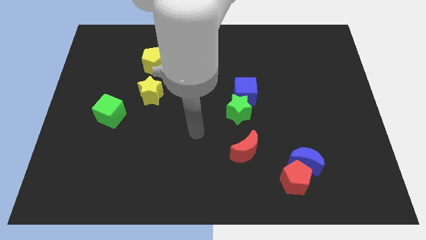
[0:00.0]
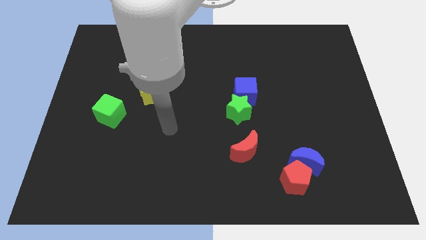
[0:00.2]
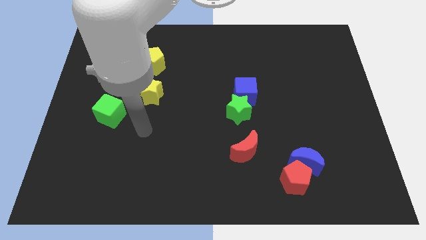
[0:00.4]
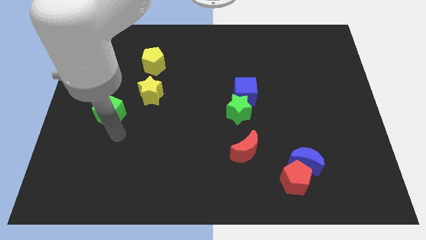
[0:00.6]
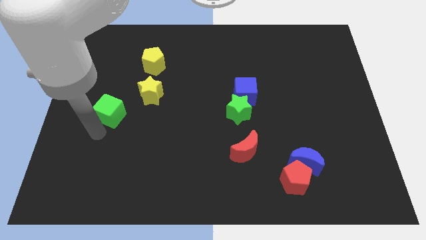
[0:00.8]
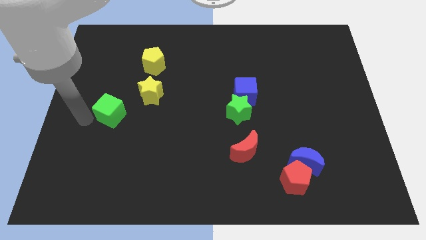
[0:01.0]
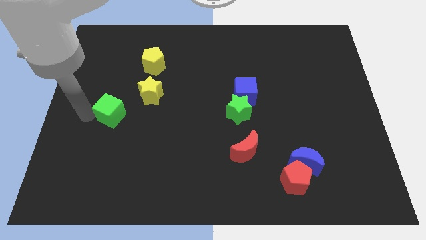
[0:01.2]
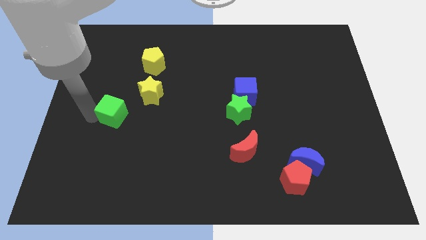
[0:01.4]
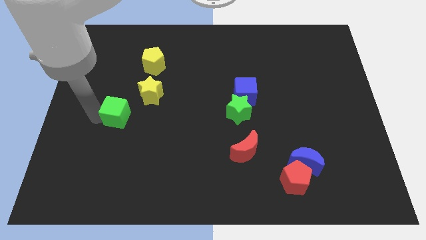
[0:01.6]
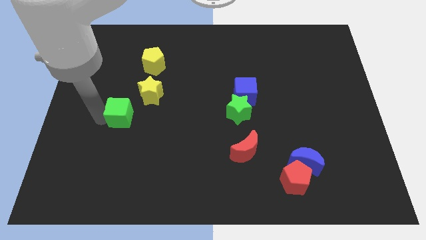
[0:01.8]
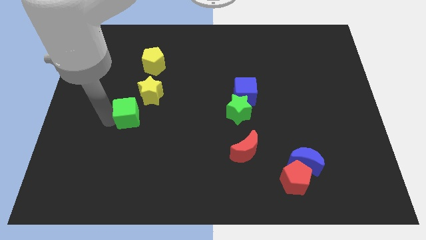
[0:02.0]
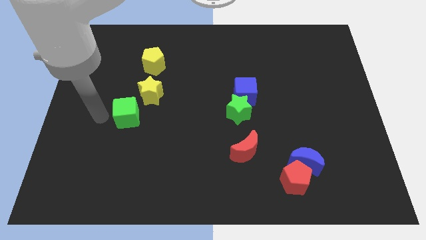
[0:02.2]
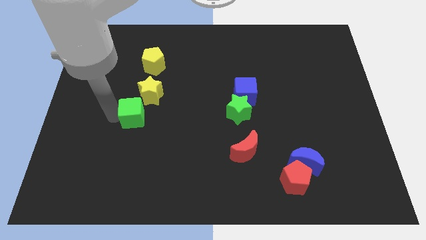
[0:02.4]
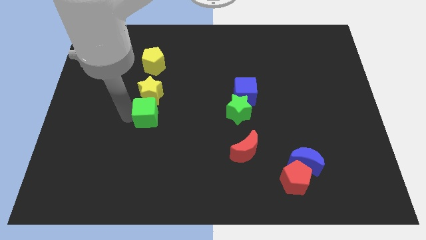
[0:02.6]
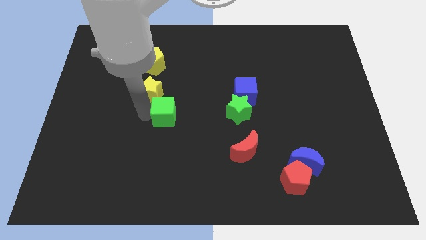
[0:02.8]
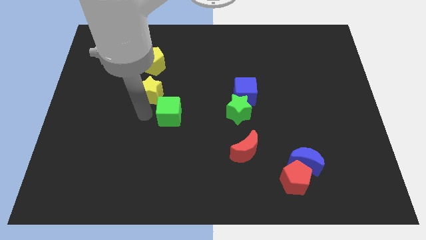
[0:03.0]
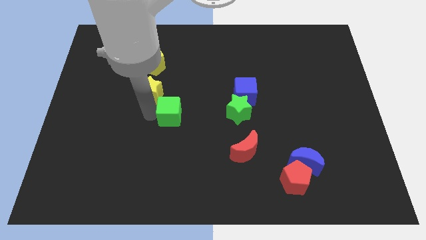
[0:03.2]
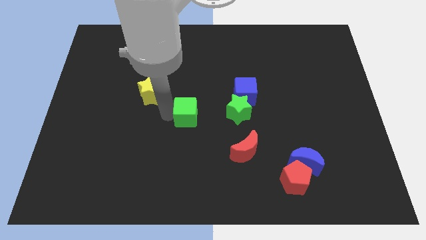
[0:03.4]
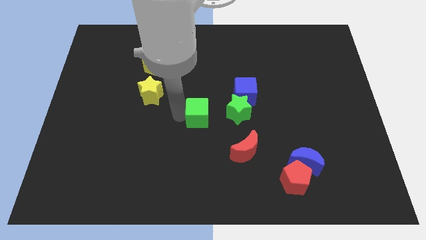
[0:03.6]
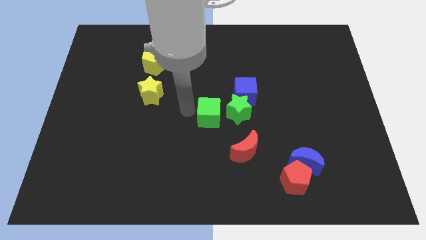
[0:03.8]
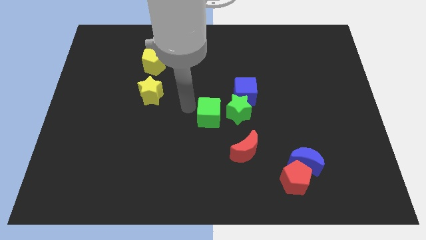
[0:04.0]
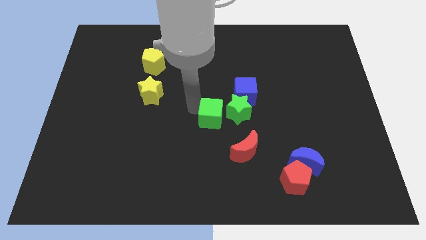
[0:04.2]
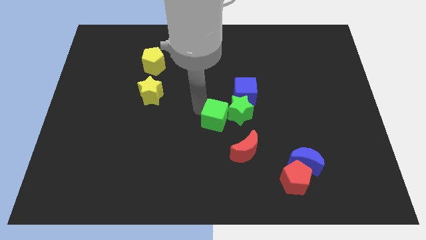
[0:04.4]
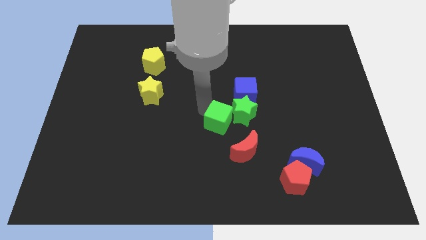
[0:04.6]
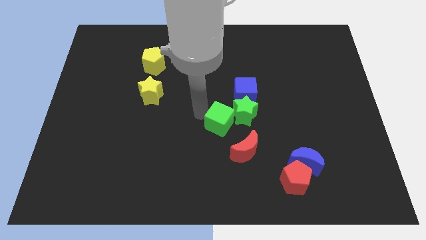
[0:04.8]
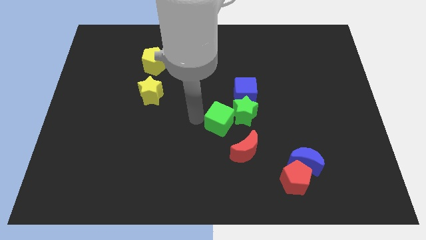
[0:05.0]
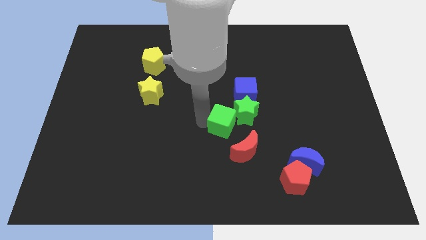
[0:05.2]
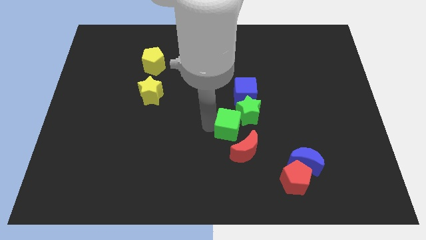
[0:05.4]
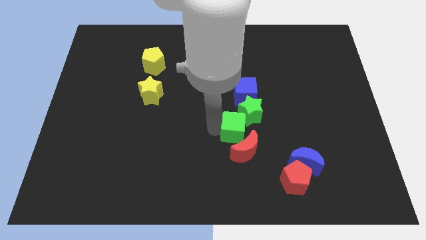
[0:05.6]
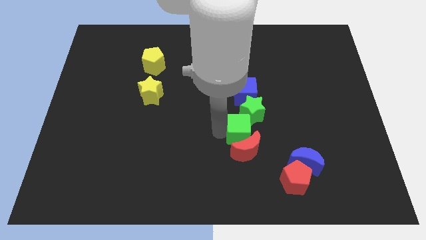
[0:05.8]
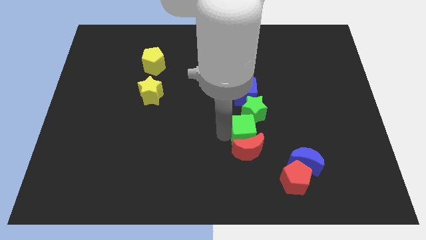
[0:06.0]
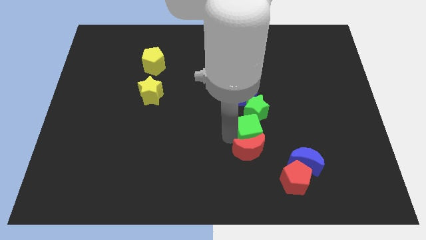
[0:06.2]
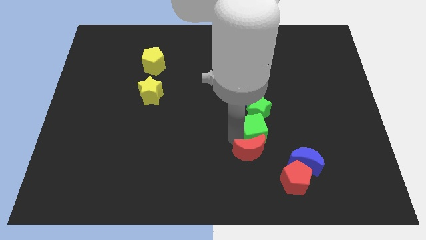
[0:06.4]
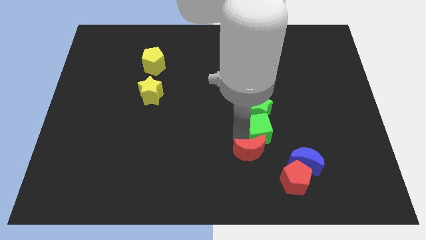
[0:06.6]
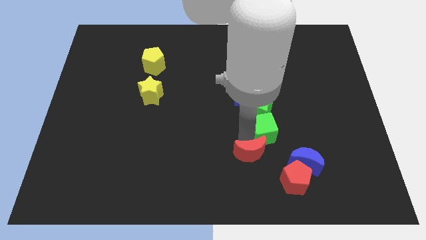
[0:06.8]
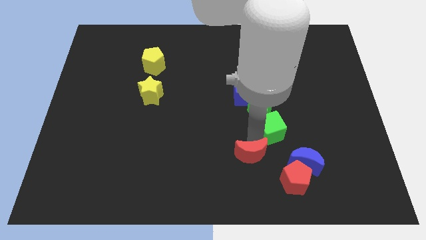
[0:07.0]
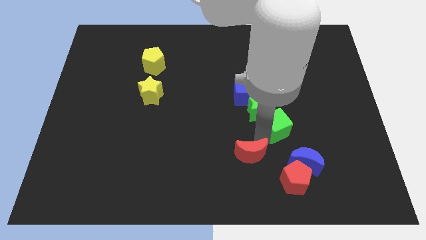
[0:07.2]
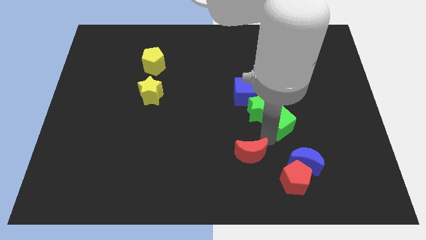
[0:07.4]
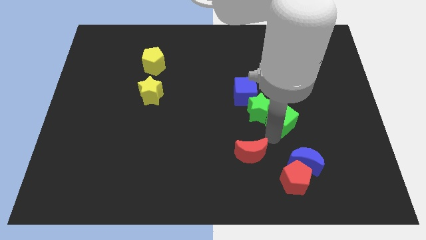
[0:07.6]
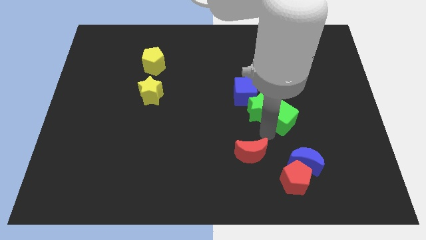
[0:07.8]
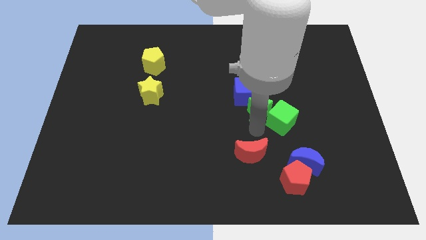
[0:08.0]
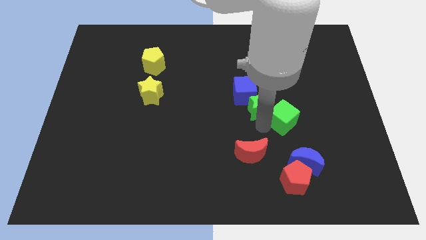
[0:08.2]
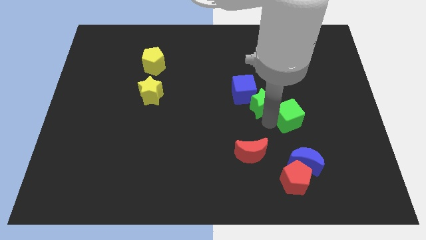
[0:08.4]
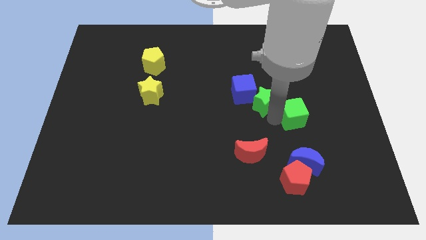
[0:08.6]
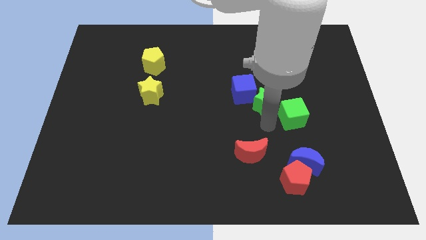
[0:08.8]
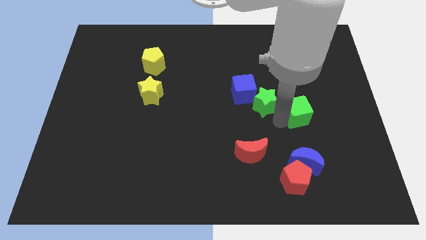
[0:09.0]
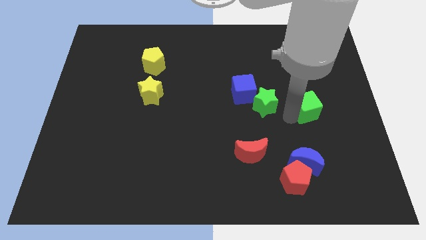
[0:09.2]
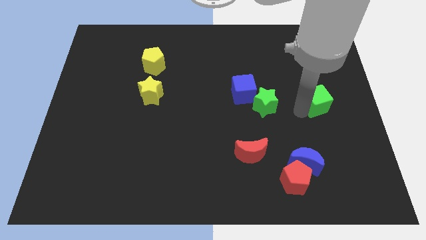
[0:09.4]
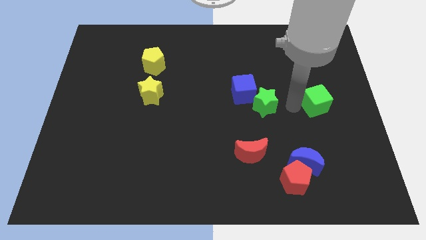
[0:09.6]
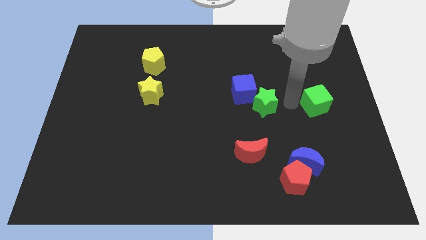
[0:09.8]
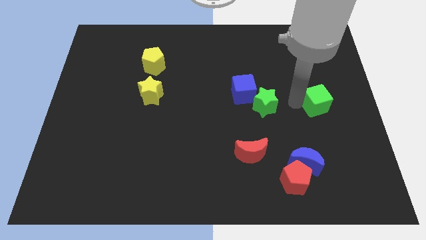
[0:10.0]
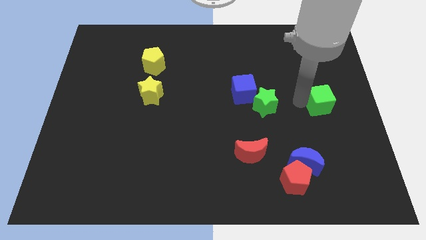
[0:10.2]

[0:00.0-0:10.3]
move the green cube to the right side of the board

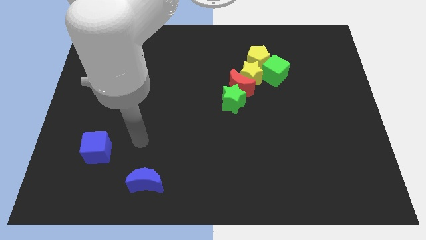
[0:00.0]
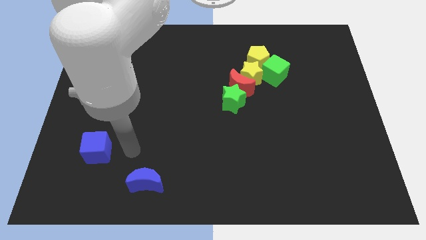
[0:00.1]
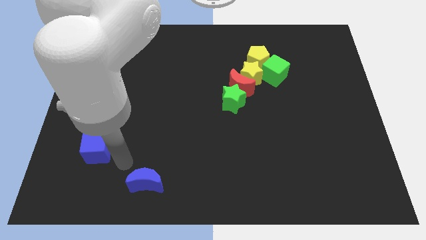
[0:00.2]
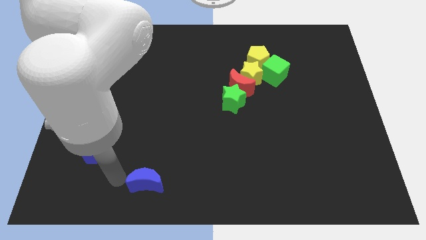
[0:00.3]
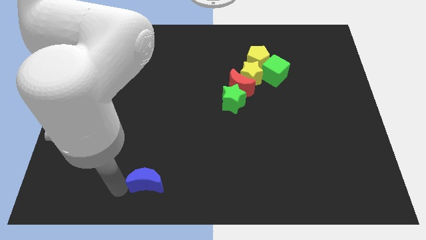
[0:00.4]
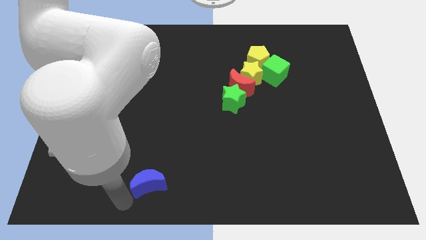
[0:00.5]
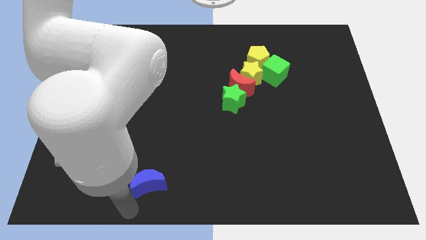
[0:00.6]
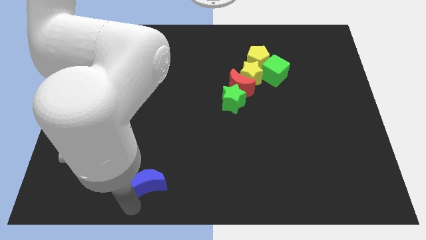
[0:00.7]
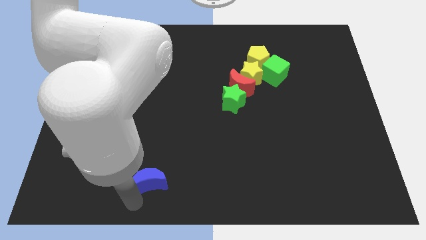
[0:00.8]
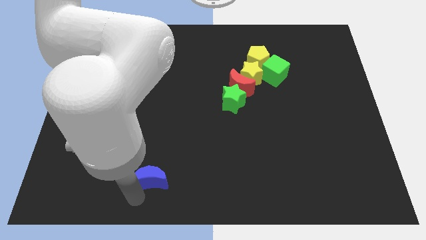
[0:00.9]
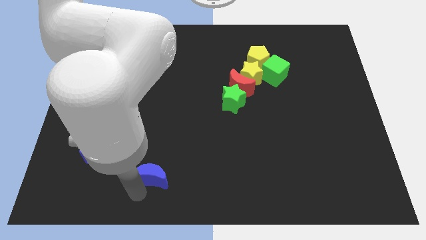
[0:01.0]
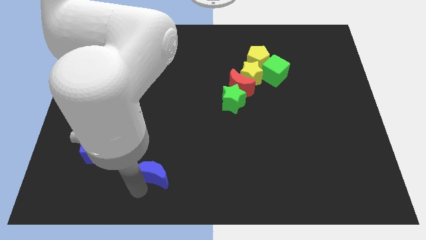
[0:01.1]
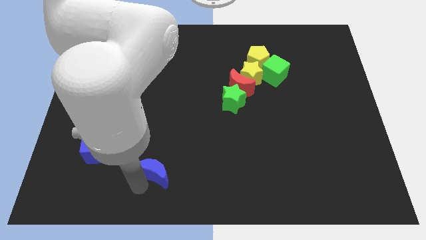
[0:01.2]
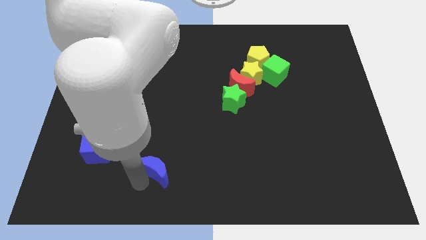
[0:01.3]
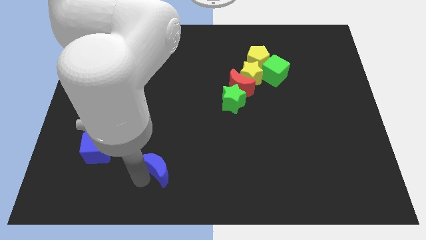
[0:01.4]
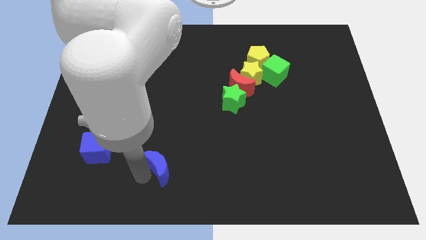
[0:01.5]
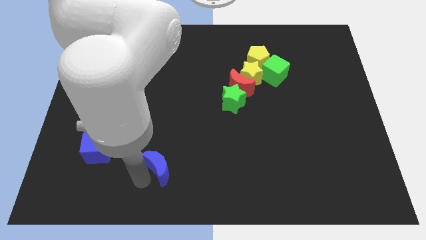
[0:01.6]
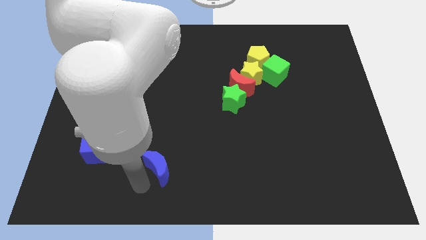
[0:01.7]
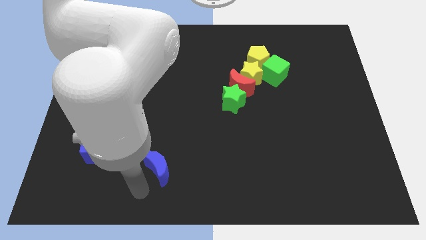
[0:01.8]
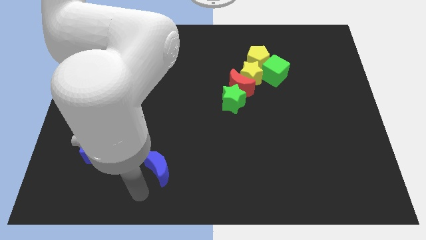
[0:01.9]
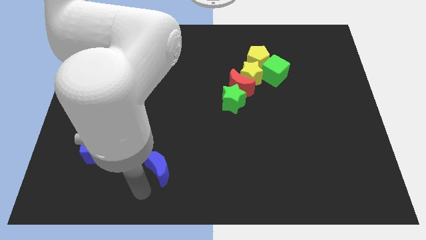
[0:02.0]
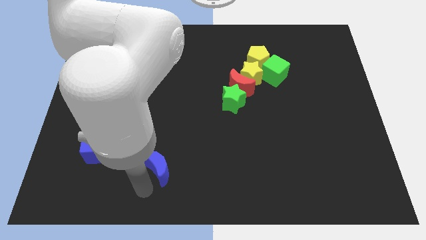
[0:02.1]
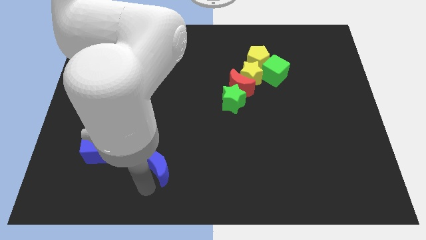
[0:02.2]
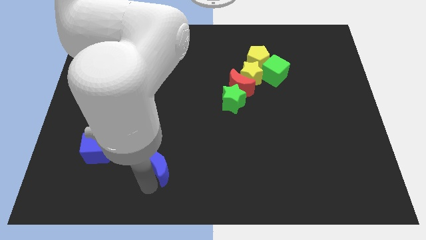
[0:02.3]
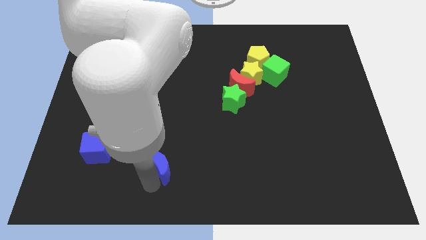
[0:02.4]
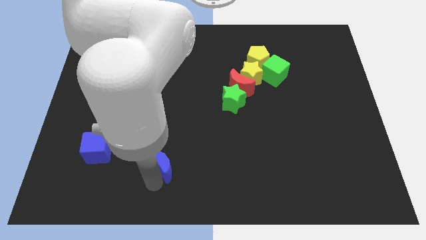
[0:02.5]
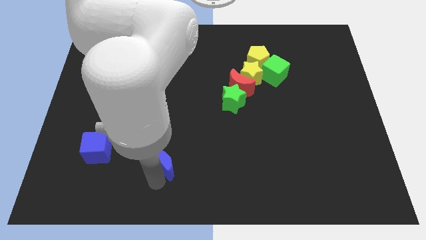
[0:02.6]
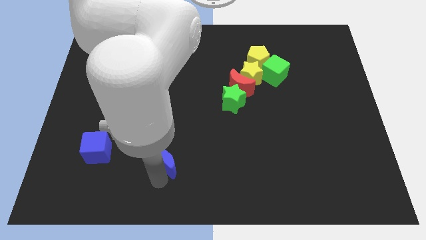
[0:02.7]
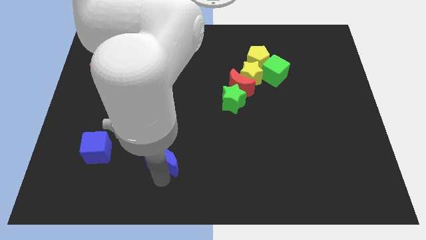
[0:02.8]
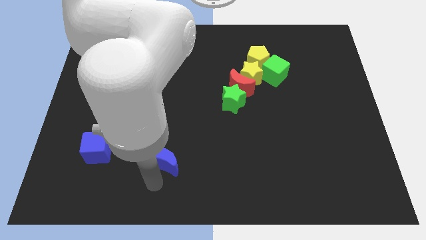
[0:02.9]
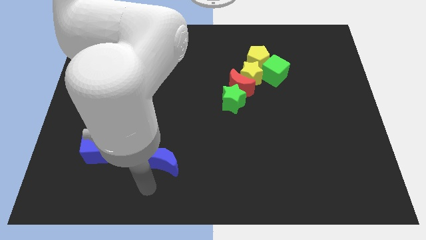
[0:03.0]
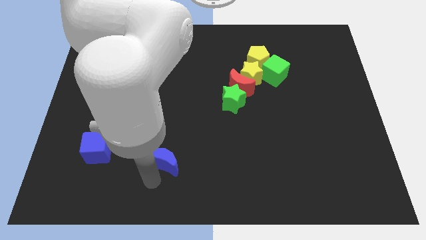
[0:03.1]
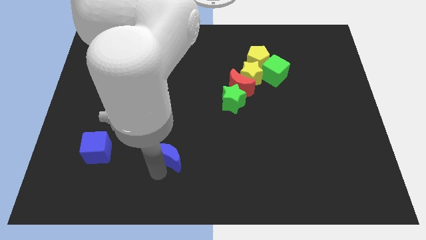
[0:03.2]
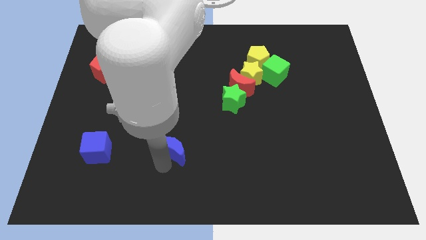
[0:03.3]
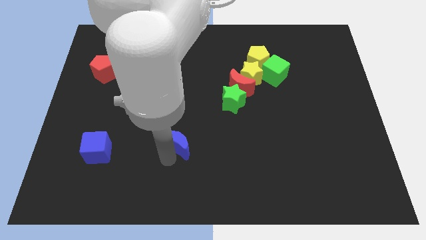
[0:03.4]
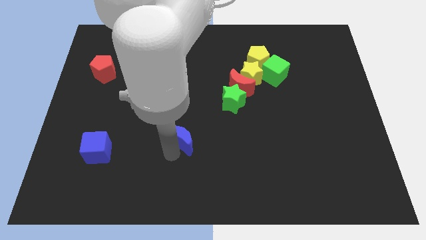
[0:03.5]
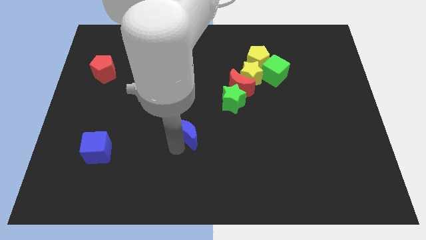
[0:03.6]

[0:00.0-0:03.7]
put the blue moon to the middle
